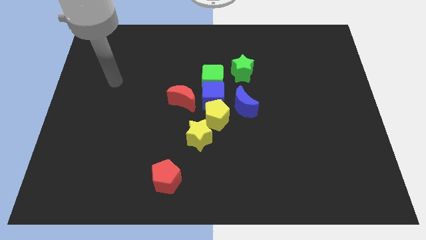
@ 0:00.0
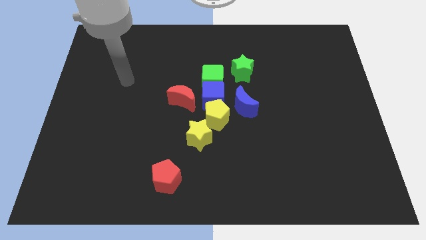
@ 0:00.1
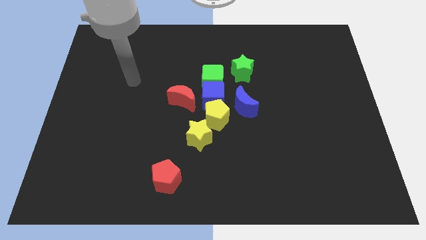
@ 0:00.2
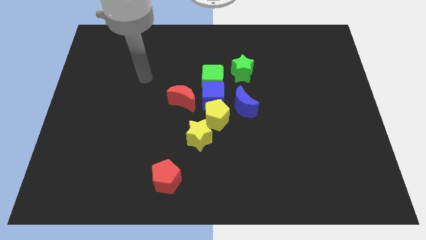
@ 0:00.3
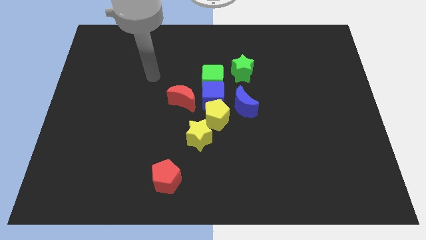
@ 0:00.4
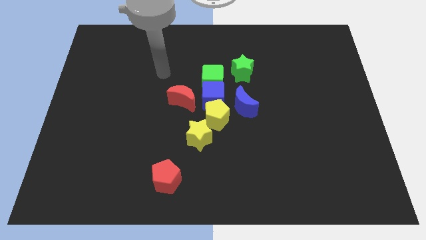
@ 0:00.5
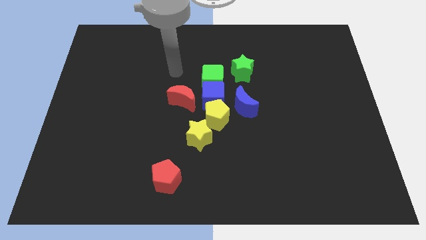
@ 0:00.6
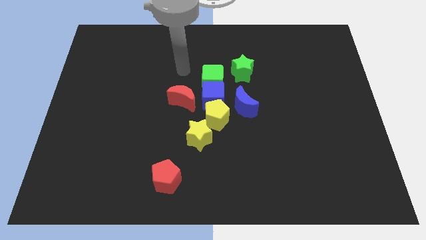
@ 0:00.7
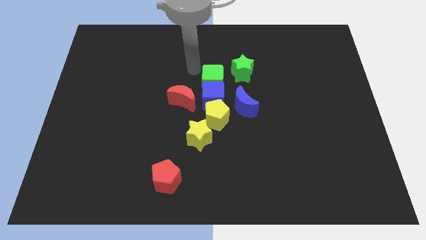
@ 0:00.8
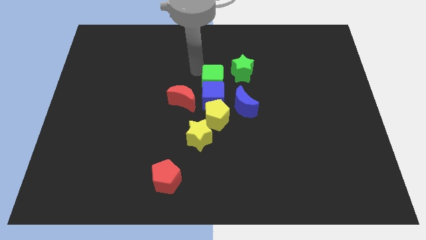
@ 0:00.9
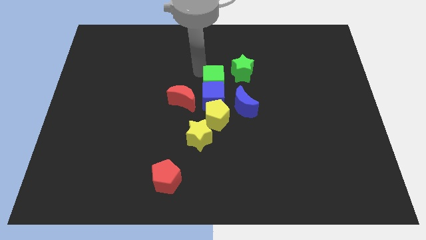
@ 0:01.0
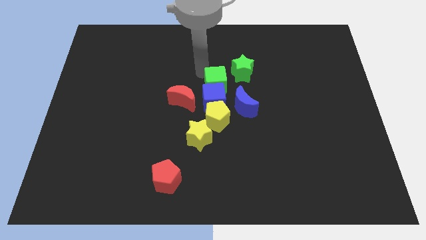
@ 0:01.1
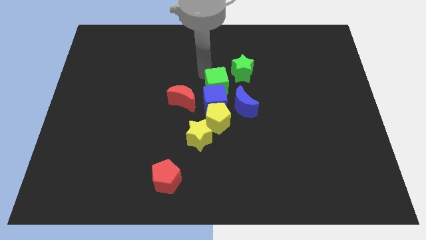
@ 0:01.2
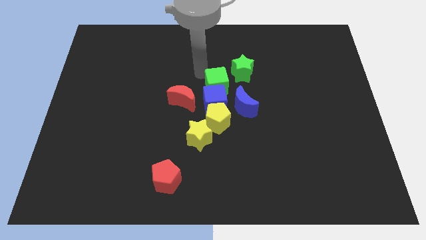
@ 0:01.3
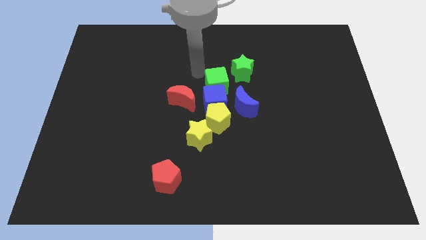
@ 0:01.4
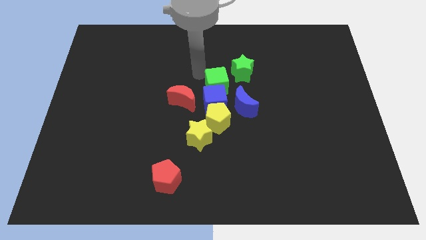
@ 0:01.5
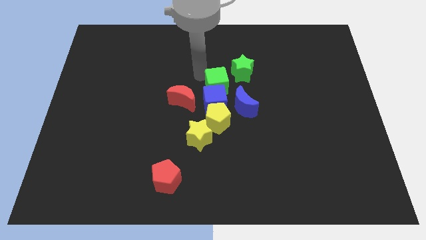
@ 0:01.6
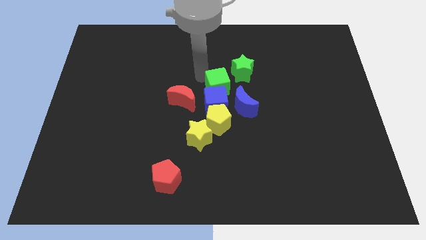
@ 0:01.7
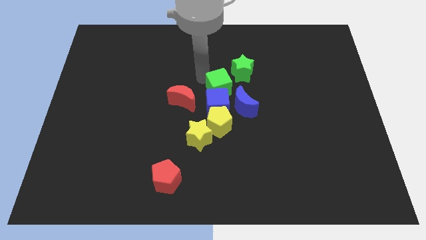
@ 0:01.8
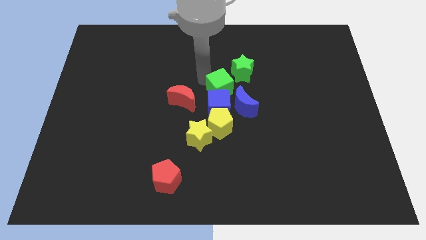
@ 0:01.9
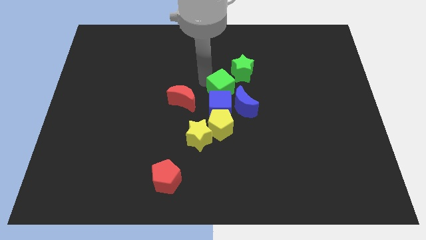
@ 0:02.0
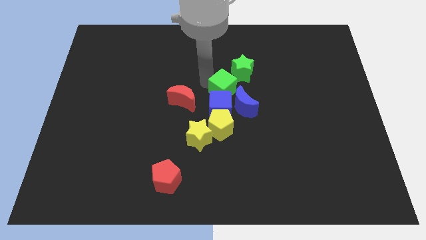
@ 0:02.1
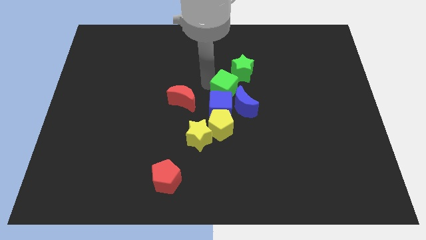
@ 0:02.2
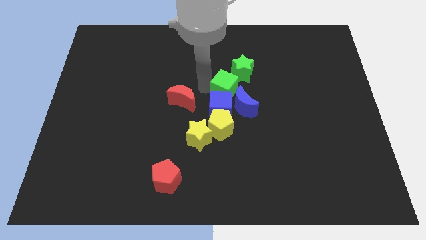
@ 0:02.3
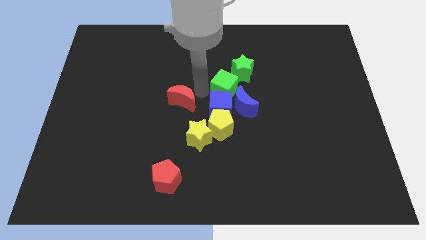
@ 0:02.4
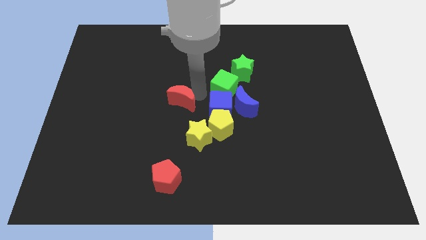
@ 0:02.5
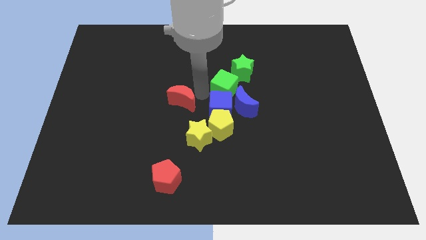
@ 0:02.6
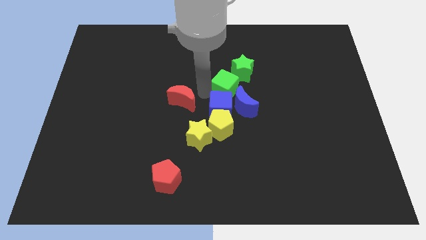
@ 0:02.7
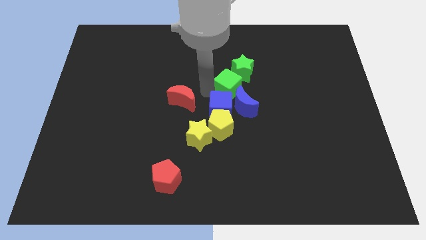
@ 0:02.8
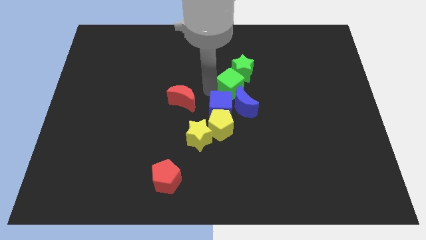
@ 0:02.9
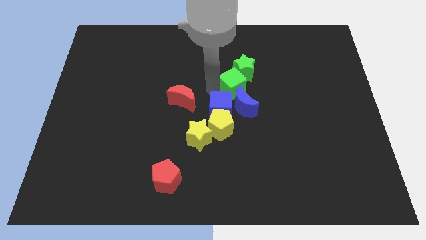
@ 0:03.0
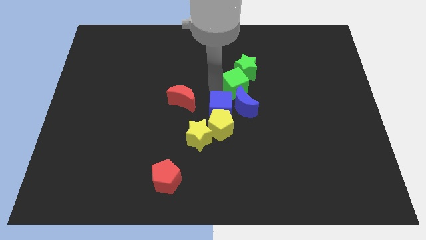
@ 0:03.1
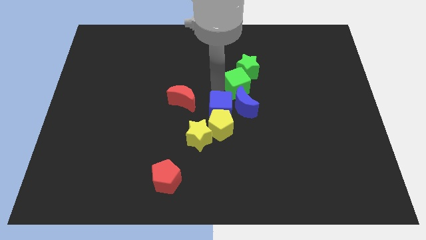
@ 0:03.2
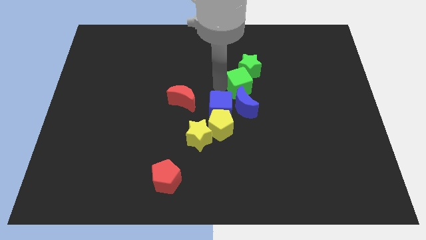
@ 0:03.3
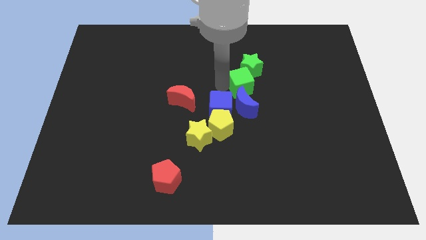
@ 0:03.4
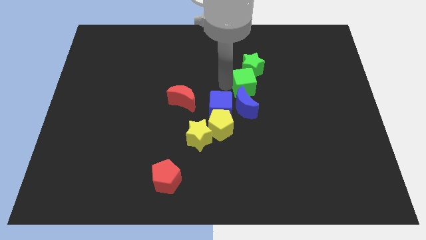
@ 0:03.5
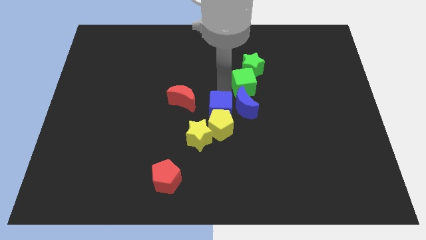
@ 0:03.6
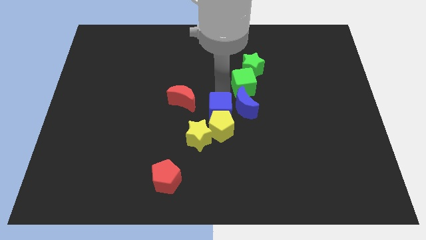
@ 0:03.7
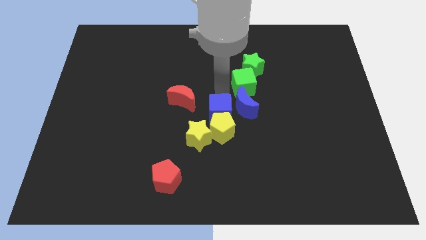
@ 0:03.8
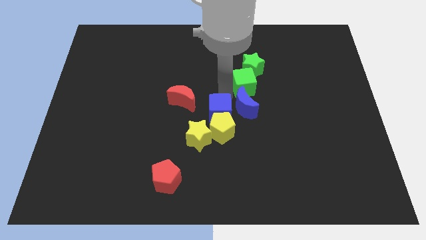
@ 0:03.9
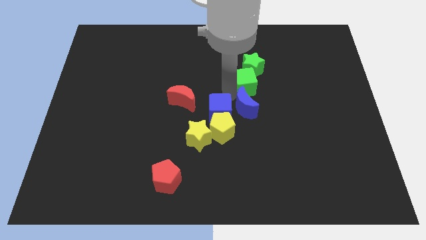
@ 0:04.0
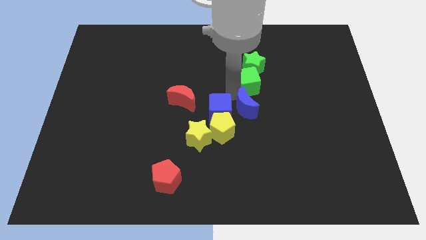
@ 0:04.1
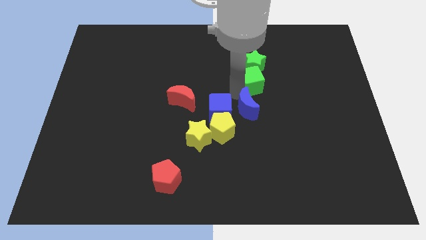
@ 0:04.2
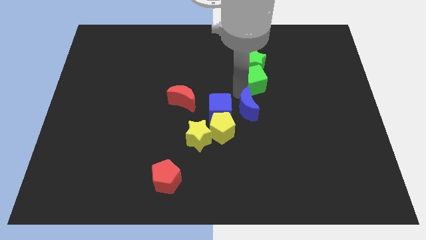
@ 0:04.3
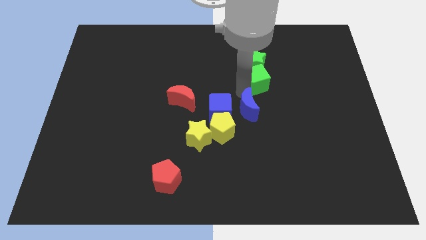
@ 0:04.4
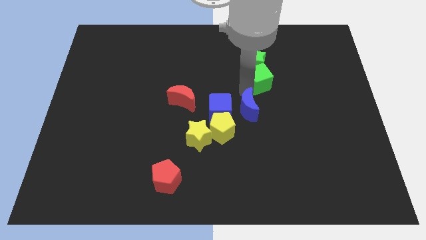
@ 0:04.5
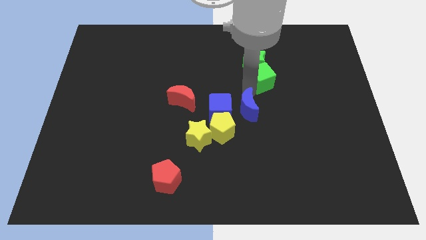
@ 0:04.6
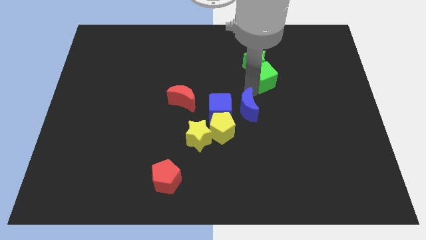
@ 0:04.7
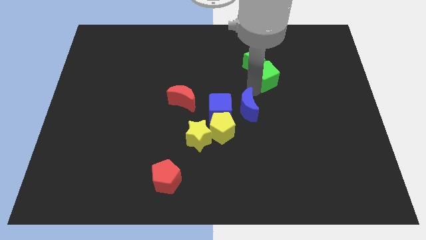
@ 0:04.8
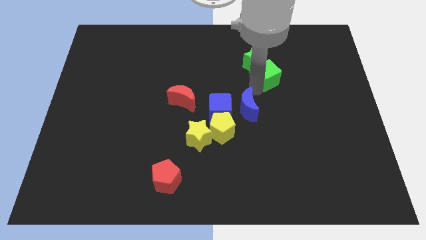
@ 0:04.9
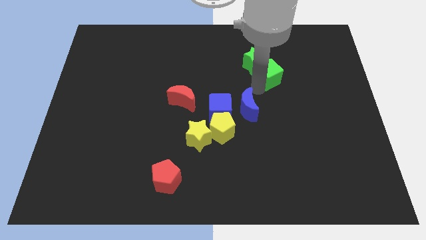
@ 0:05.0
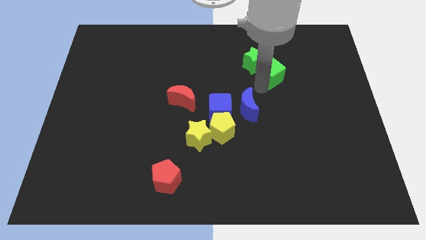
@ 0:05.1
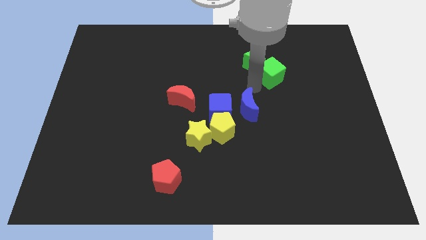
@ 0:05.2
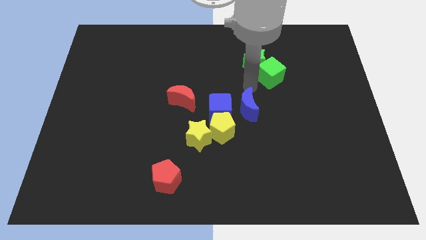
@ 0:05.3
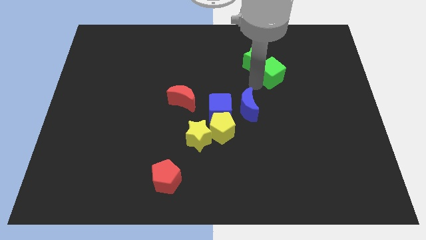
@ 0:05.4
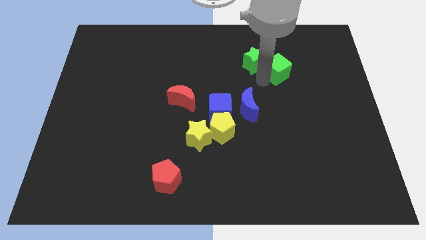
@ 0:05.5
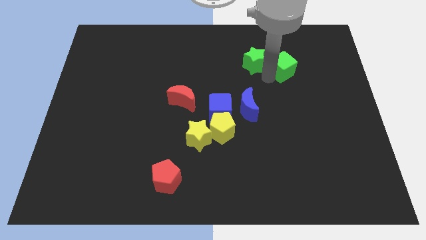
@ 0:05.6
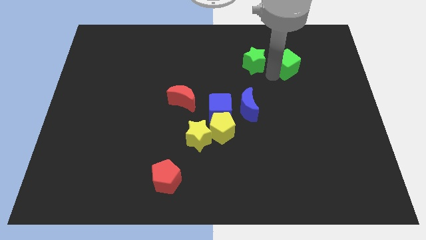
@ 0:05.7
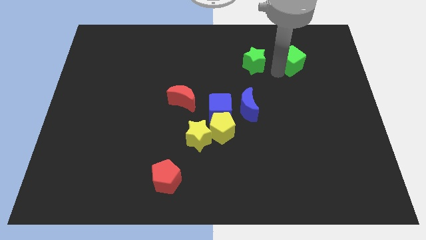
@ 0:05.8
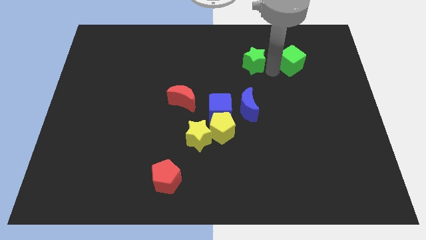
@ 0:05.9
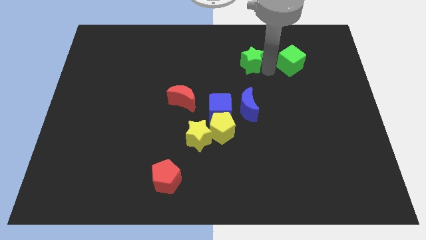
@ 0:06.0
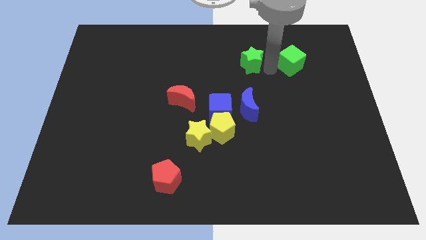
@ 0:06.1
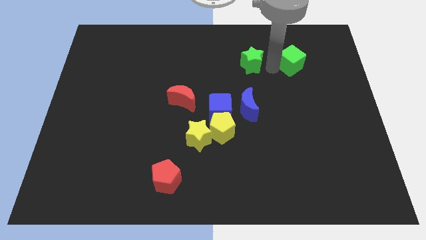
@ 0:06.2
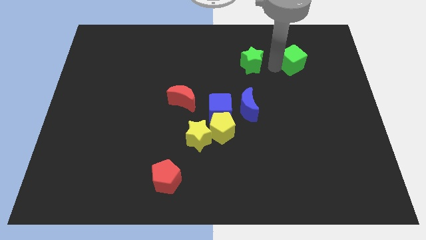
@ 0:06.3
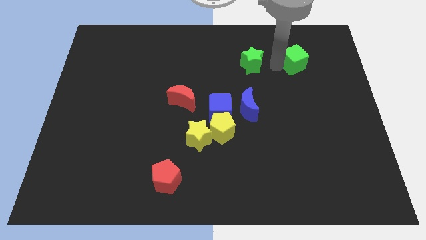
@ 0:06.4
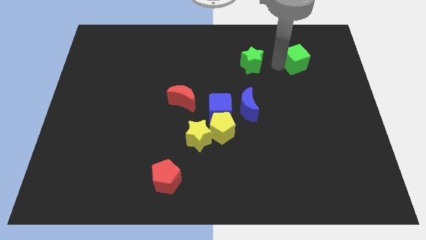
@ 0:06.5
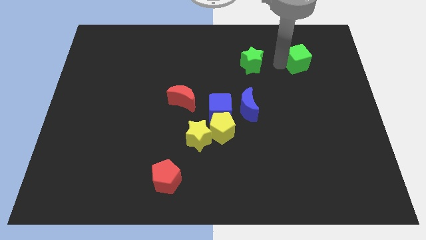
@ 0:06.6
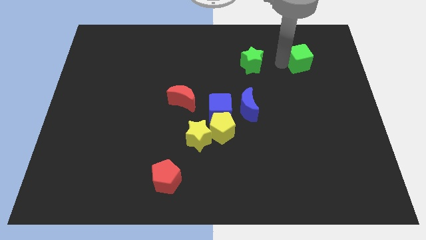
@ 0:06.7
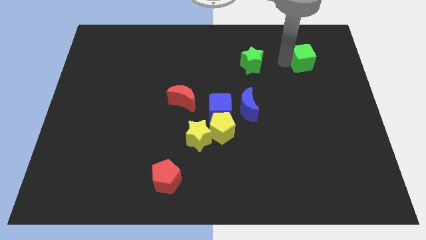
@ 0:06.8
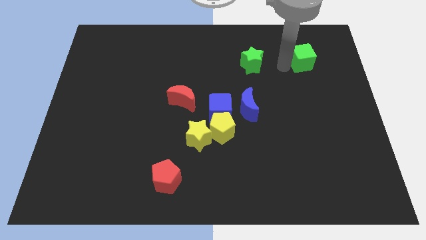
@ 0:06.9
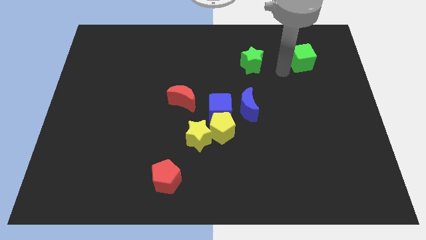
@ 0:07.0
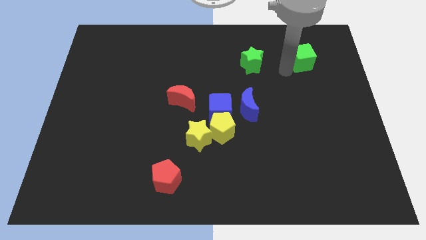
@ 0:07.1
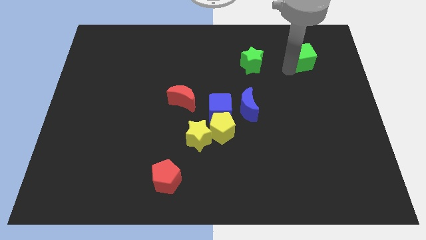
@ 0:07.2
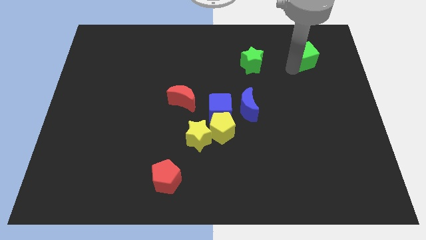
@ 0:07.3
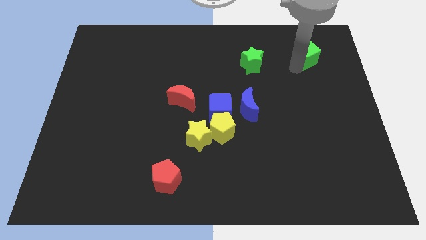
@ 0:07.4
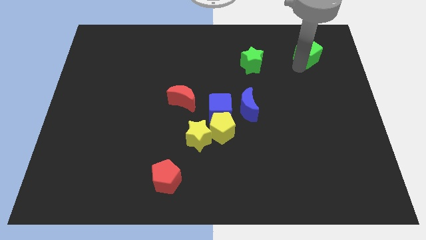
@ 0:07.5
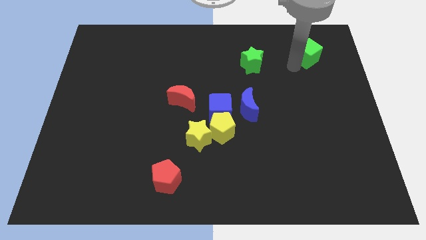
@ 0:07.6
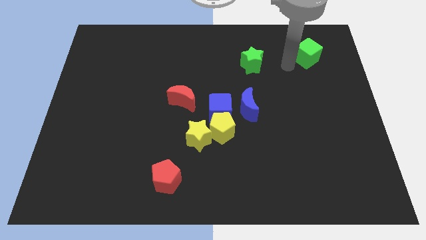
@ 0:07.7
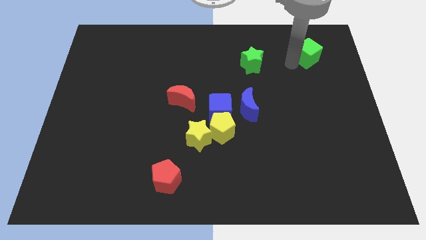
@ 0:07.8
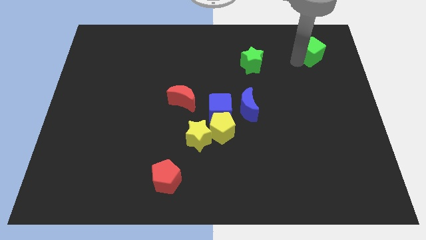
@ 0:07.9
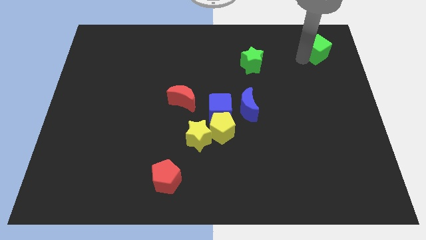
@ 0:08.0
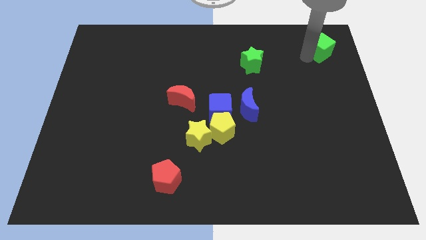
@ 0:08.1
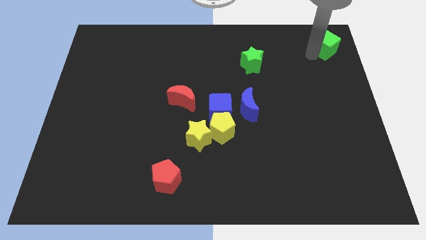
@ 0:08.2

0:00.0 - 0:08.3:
move the green cube to the top right corner
